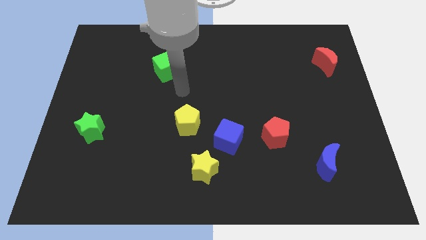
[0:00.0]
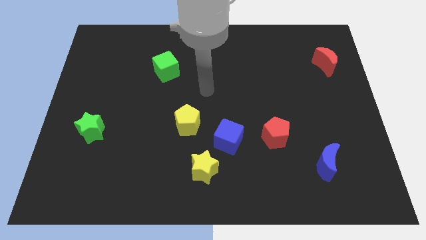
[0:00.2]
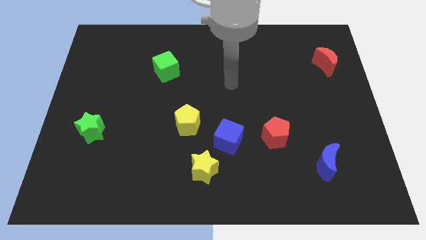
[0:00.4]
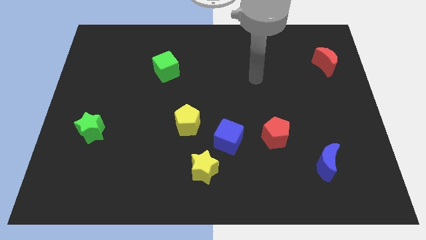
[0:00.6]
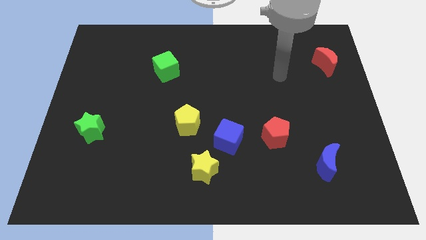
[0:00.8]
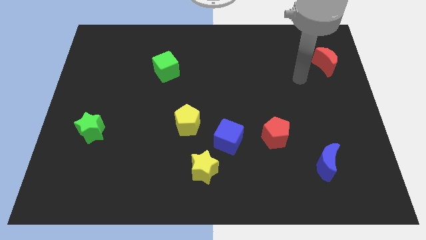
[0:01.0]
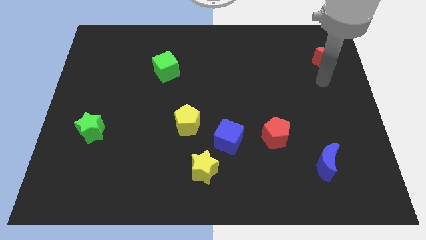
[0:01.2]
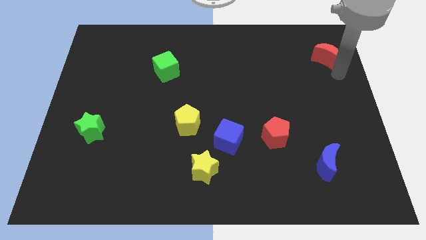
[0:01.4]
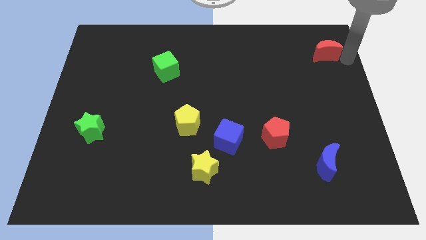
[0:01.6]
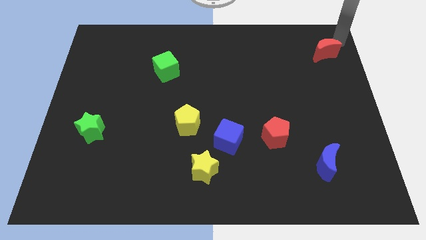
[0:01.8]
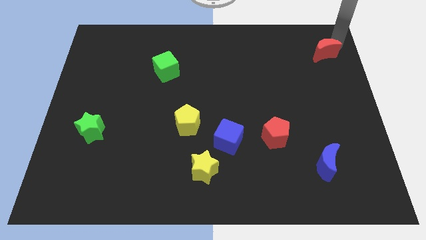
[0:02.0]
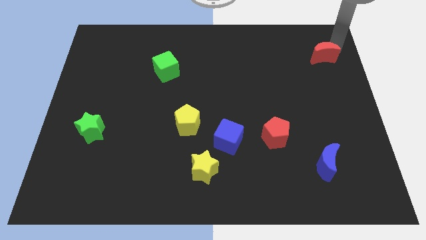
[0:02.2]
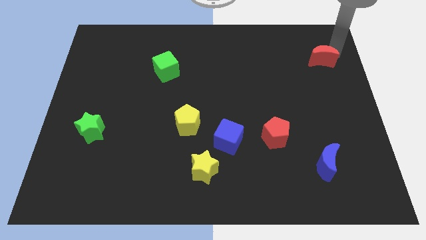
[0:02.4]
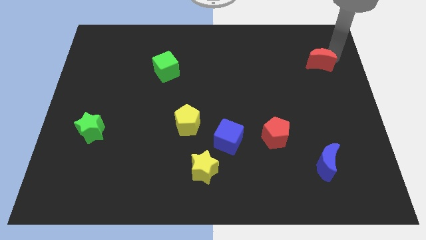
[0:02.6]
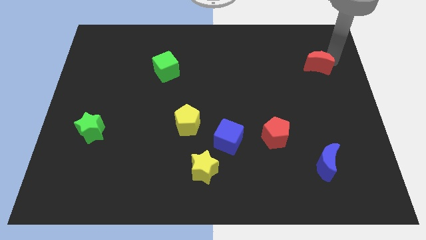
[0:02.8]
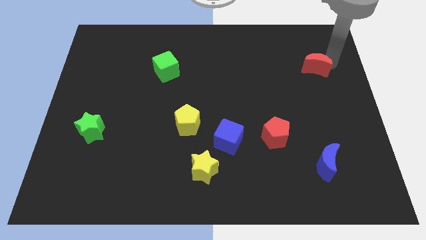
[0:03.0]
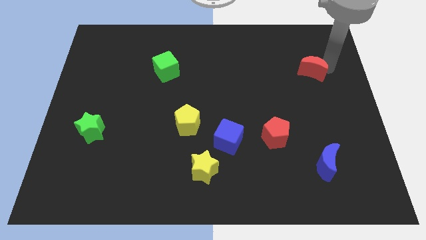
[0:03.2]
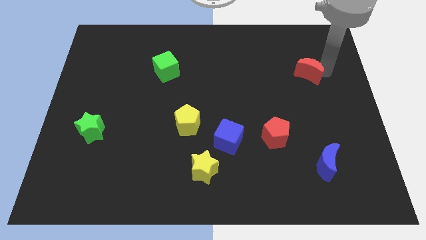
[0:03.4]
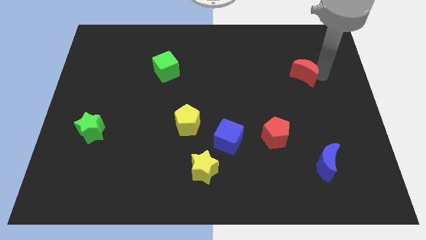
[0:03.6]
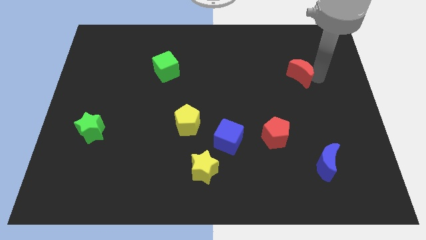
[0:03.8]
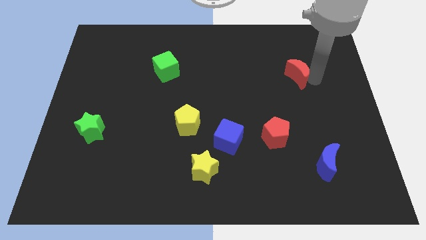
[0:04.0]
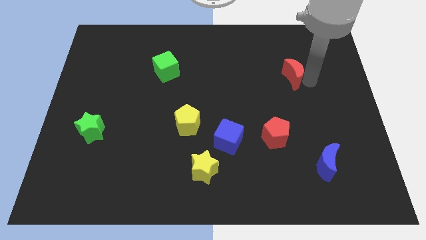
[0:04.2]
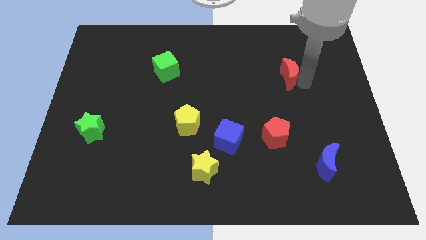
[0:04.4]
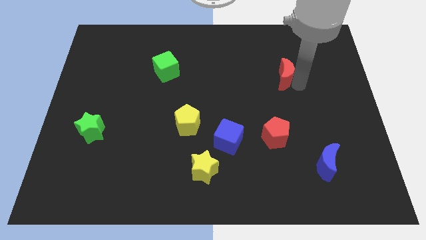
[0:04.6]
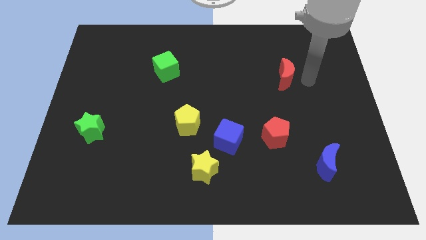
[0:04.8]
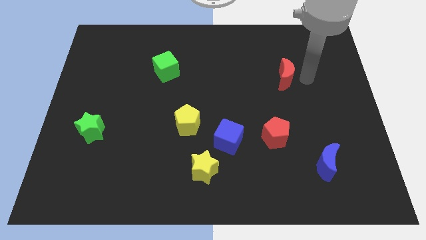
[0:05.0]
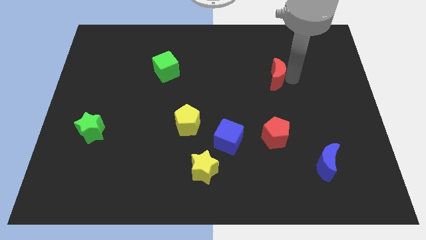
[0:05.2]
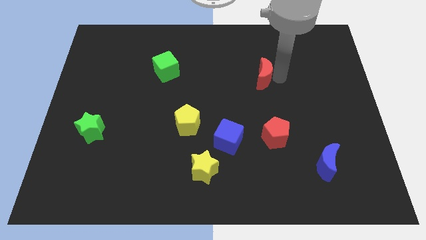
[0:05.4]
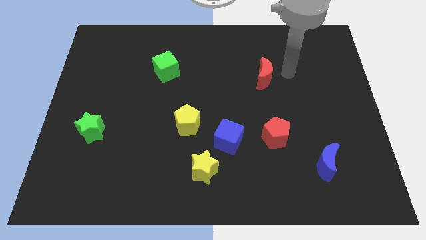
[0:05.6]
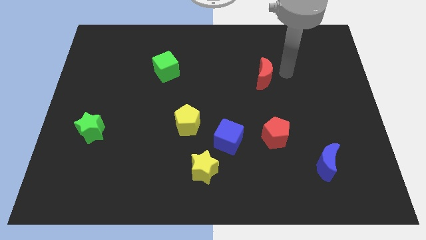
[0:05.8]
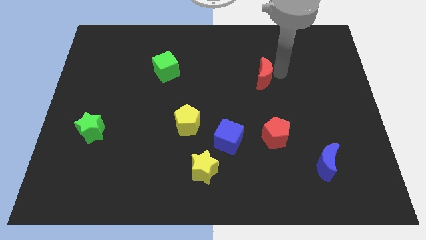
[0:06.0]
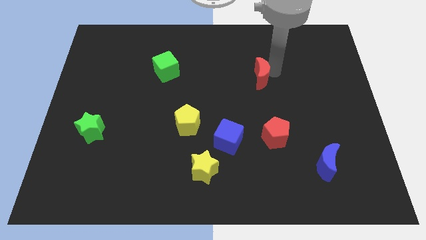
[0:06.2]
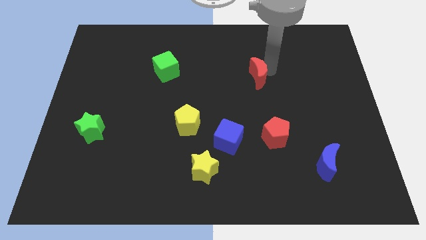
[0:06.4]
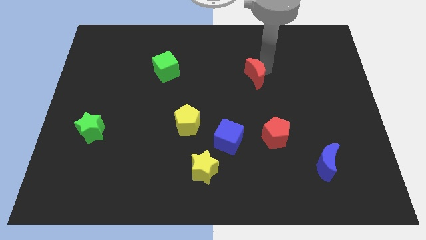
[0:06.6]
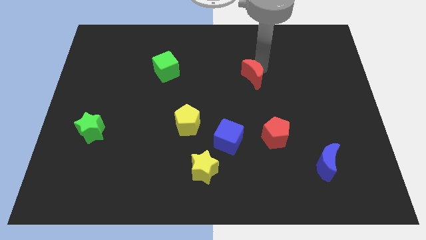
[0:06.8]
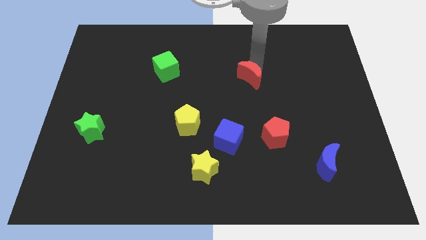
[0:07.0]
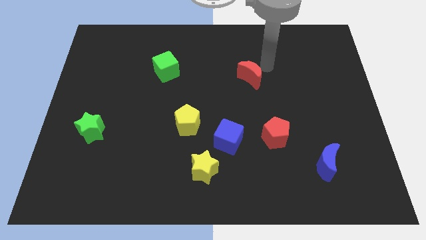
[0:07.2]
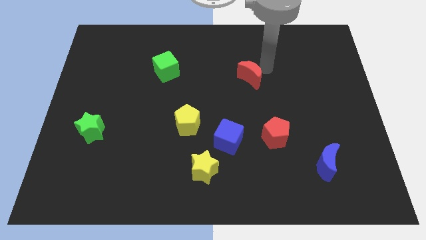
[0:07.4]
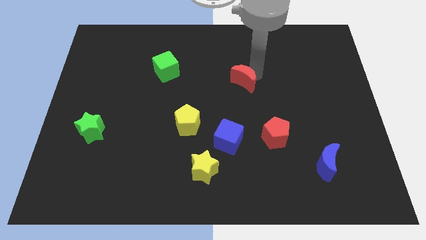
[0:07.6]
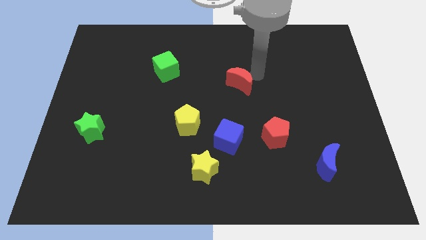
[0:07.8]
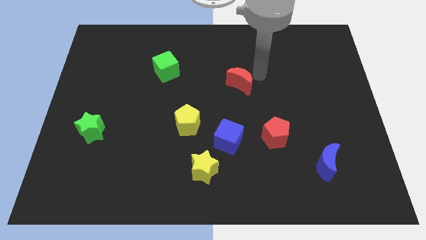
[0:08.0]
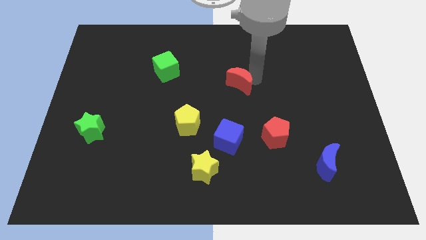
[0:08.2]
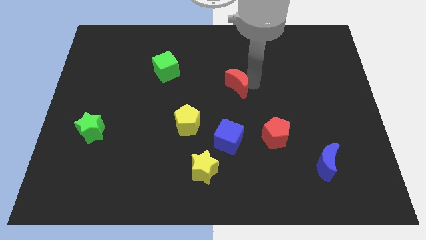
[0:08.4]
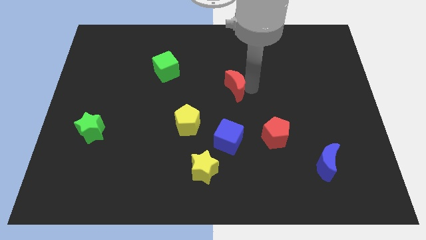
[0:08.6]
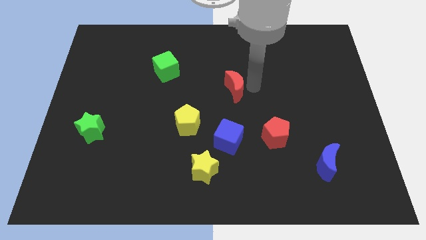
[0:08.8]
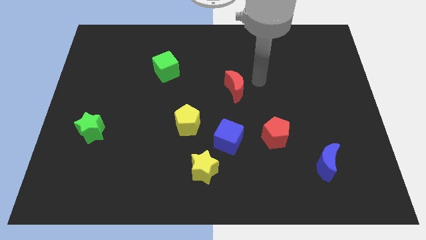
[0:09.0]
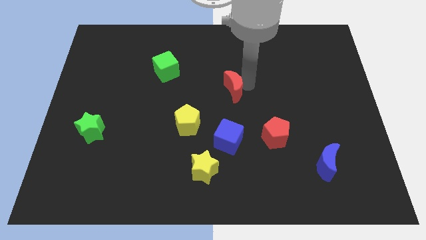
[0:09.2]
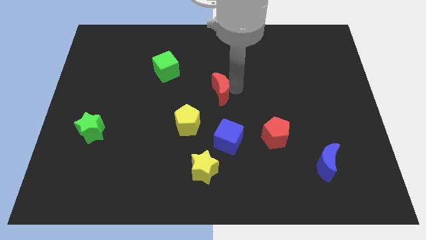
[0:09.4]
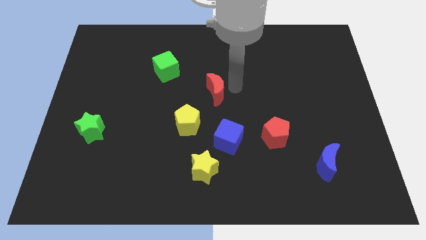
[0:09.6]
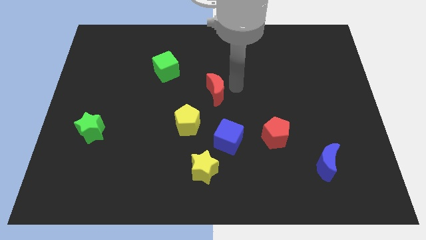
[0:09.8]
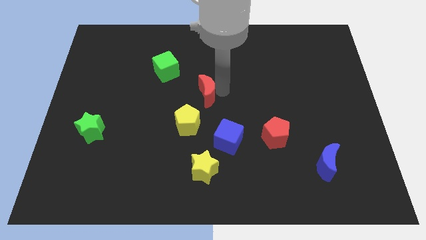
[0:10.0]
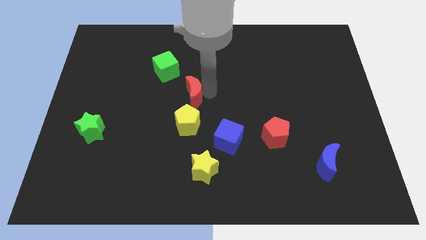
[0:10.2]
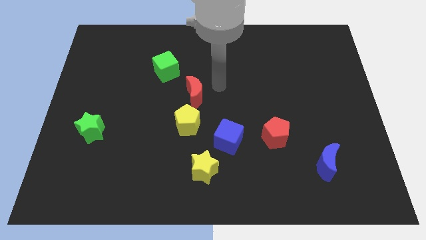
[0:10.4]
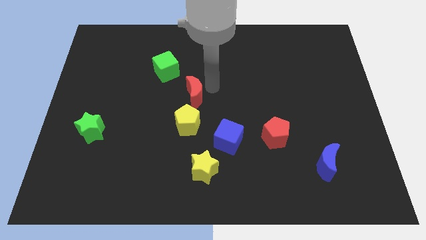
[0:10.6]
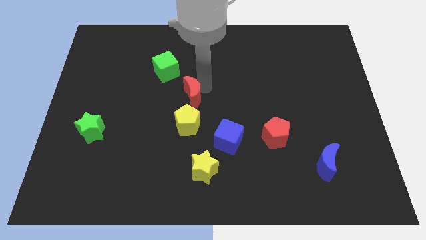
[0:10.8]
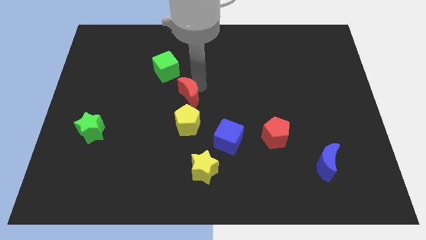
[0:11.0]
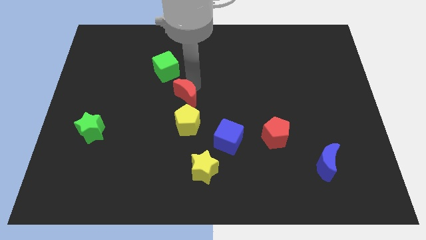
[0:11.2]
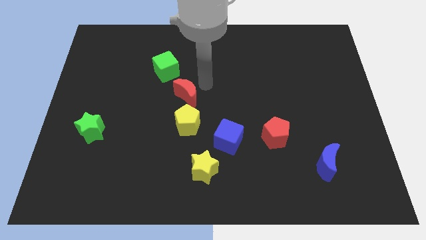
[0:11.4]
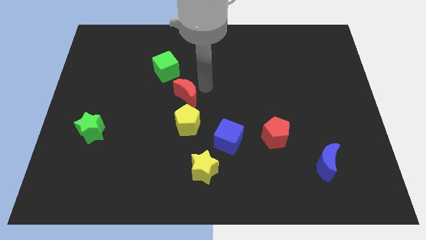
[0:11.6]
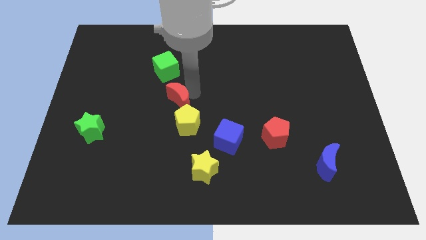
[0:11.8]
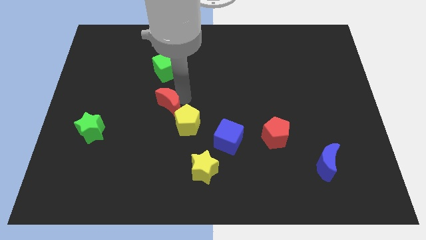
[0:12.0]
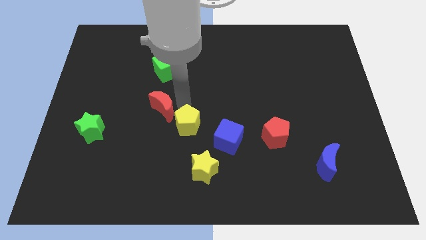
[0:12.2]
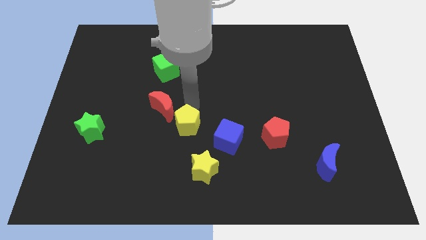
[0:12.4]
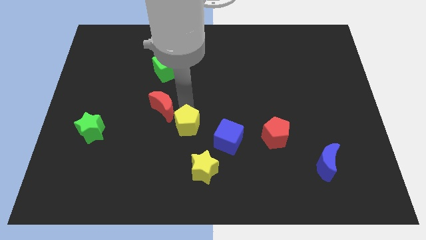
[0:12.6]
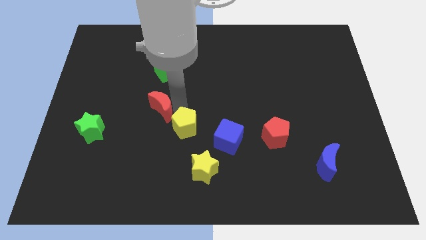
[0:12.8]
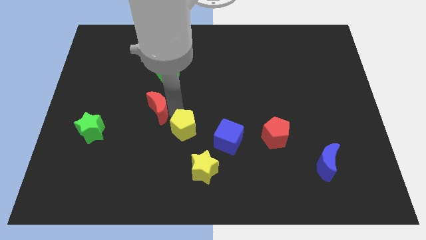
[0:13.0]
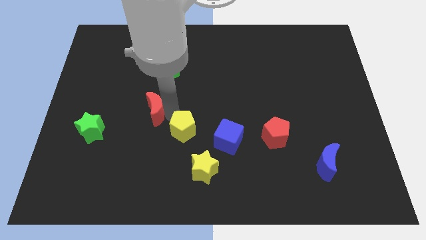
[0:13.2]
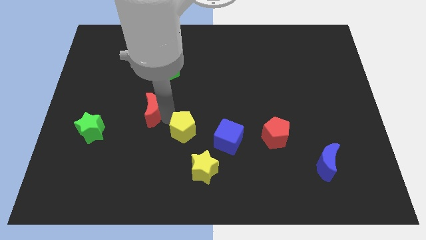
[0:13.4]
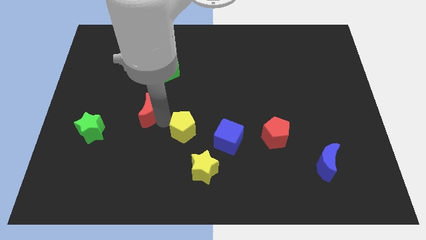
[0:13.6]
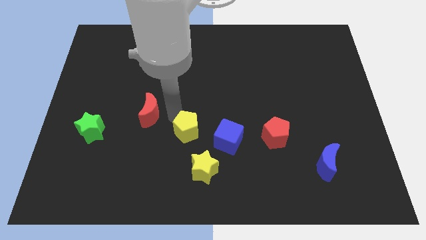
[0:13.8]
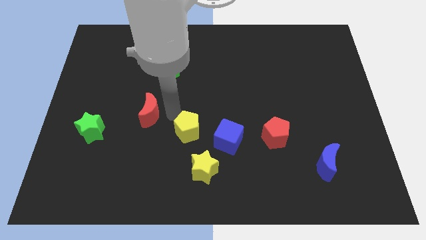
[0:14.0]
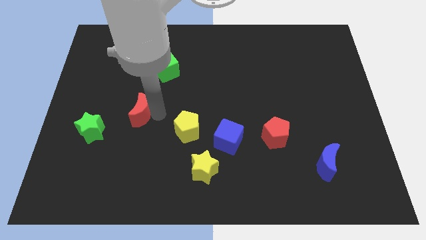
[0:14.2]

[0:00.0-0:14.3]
push the red moon to the top right of the green star
